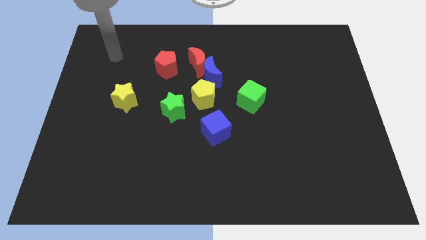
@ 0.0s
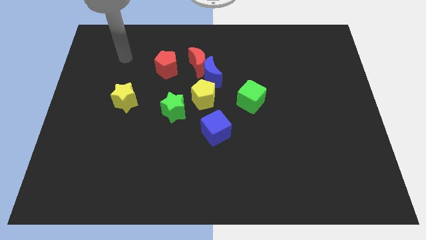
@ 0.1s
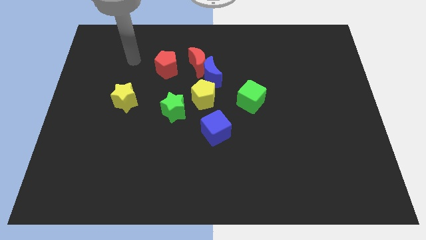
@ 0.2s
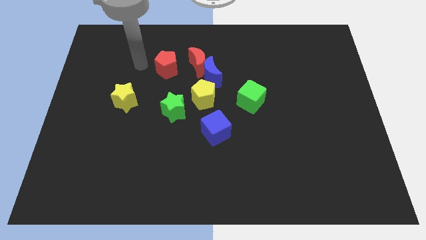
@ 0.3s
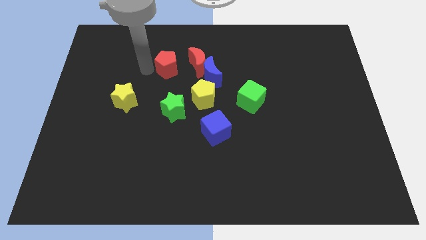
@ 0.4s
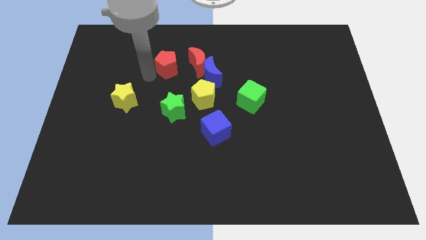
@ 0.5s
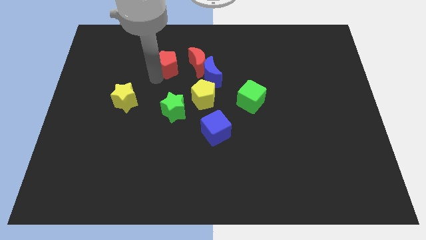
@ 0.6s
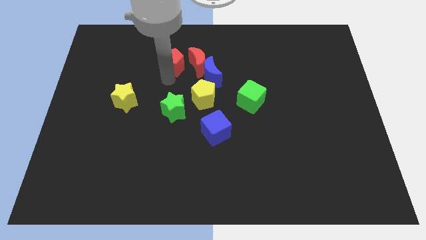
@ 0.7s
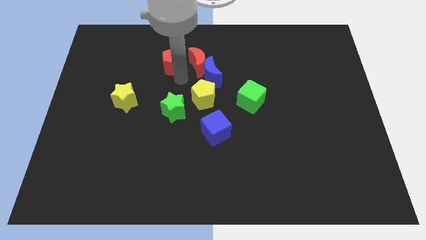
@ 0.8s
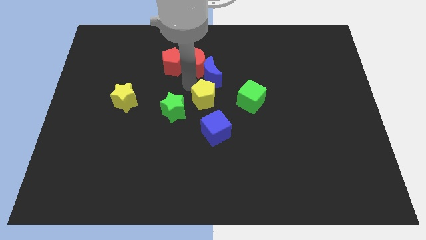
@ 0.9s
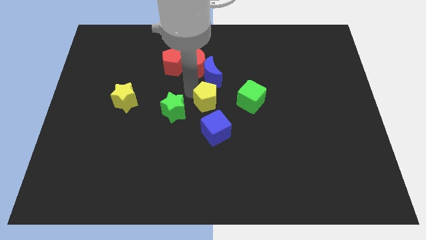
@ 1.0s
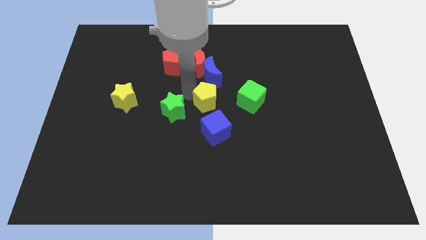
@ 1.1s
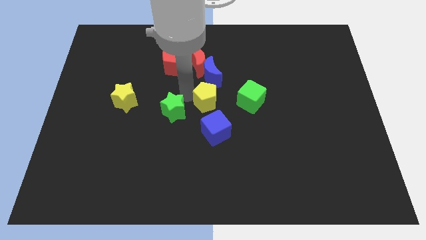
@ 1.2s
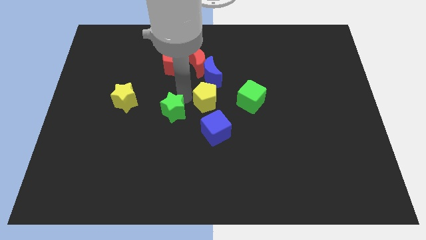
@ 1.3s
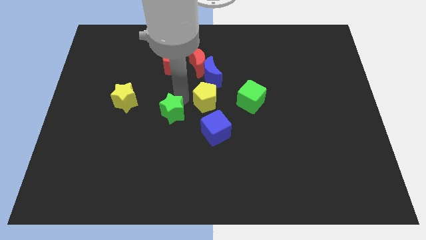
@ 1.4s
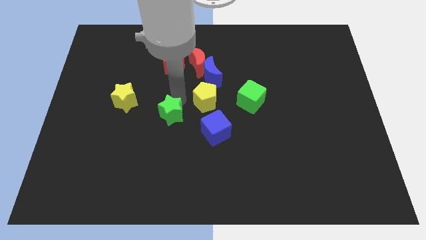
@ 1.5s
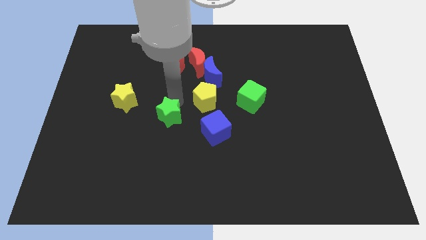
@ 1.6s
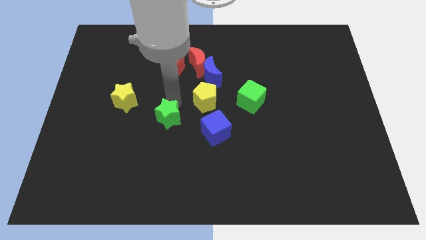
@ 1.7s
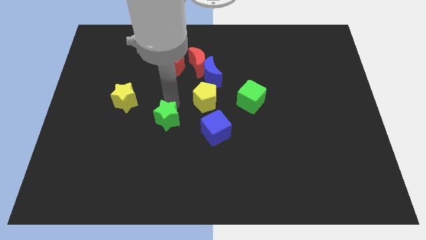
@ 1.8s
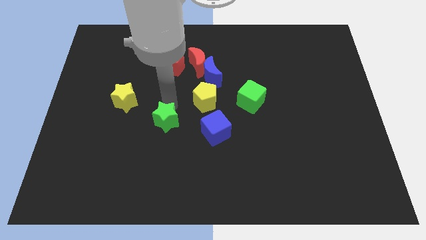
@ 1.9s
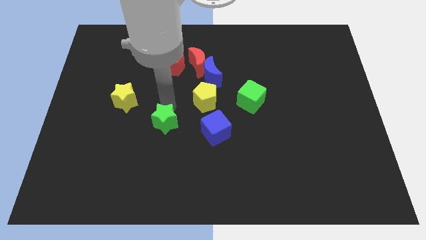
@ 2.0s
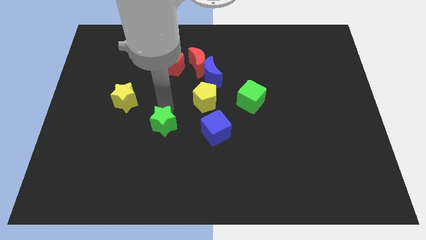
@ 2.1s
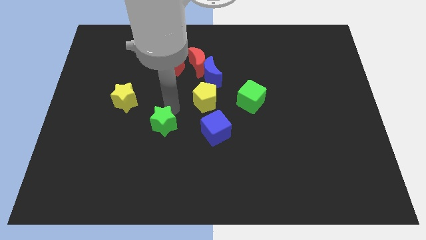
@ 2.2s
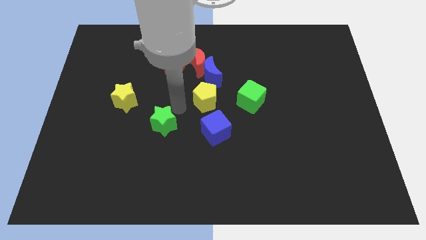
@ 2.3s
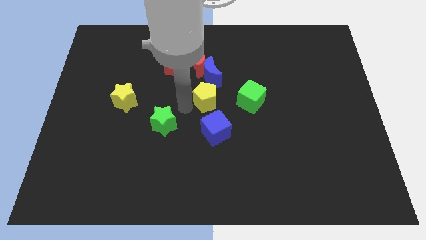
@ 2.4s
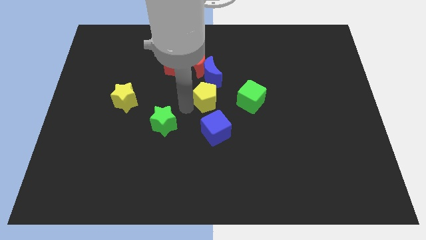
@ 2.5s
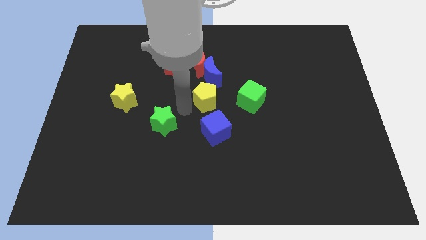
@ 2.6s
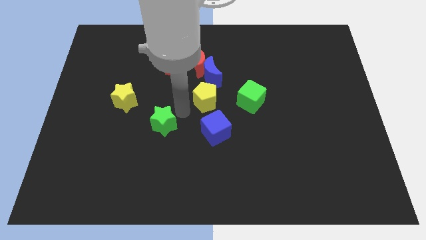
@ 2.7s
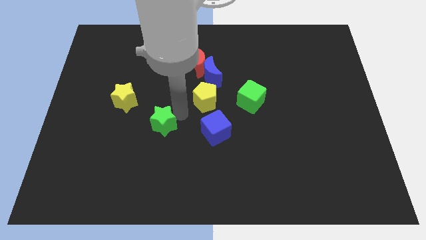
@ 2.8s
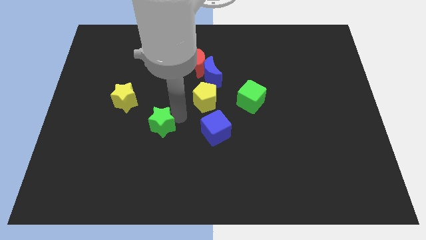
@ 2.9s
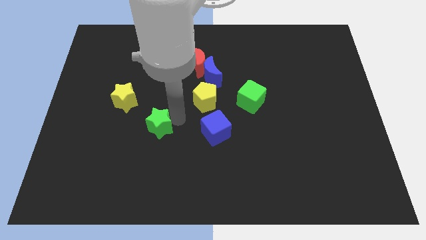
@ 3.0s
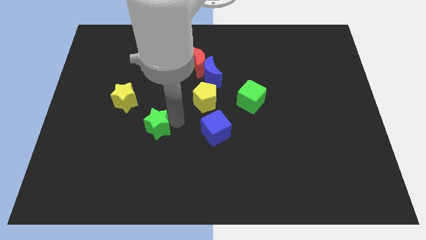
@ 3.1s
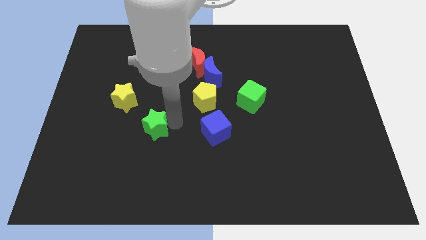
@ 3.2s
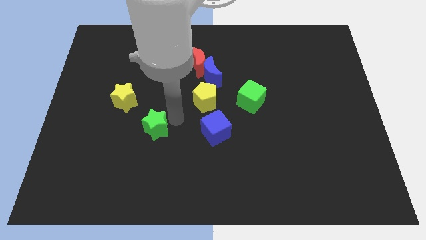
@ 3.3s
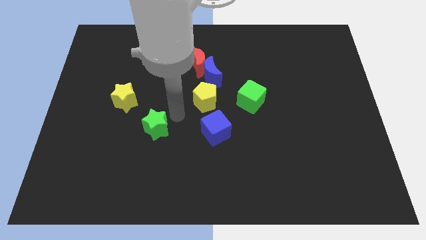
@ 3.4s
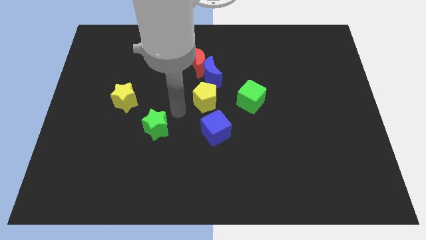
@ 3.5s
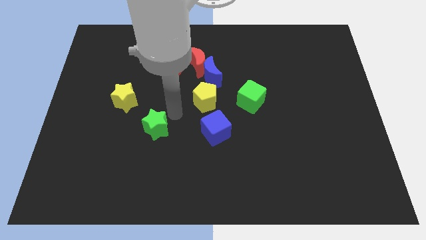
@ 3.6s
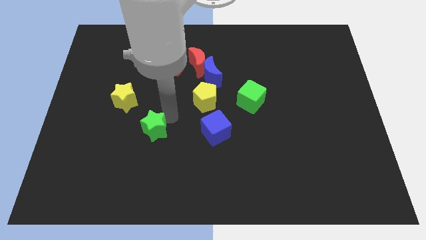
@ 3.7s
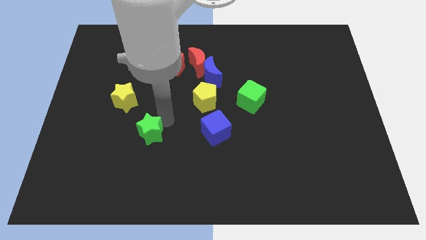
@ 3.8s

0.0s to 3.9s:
push the green star downwards and to the left diagonally a little bit

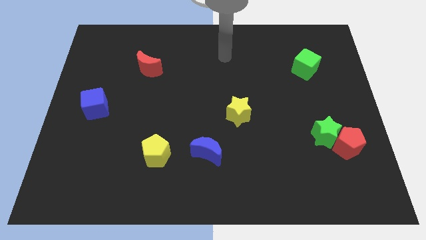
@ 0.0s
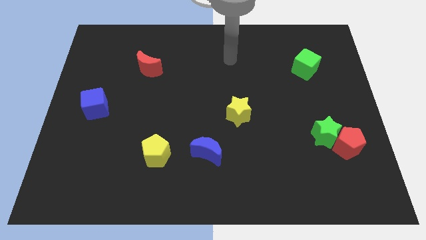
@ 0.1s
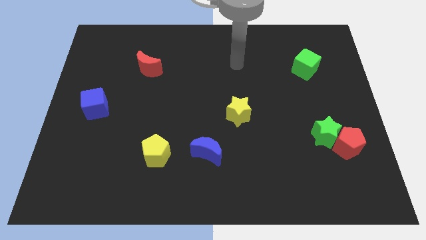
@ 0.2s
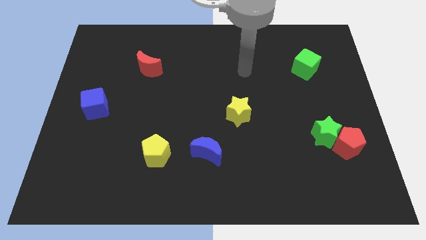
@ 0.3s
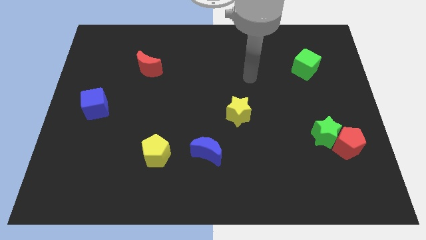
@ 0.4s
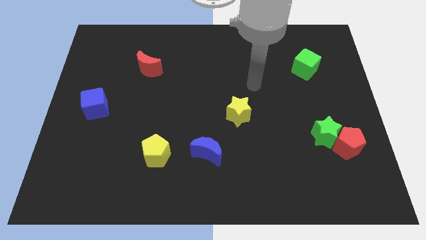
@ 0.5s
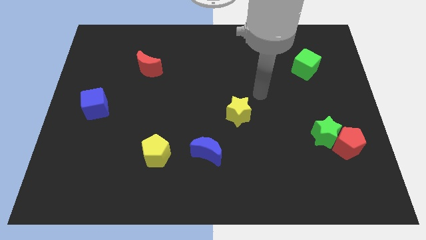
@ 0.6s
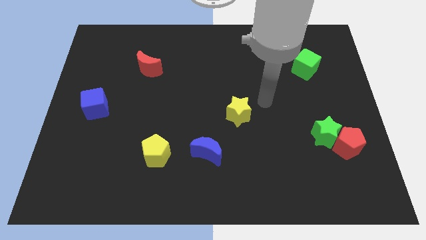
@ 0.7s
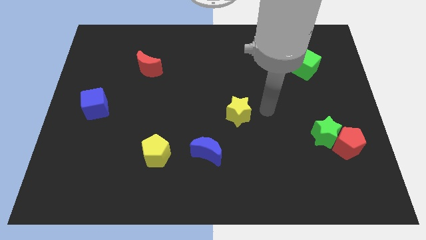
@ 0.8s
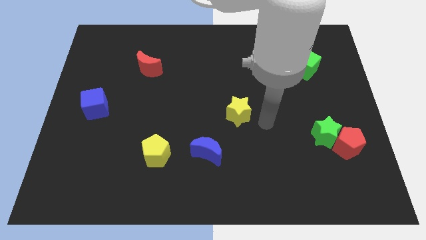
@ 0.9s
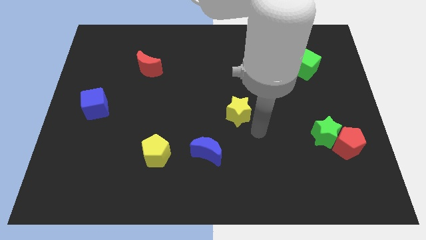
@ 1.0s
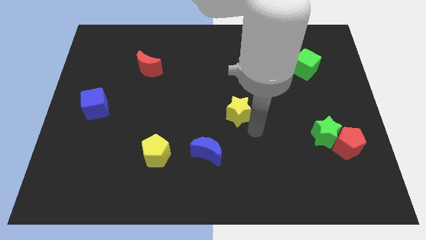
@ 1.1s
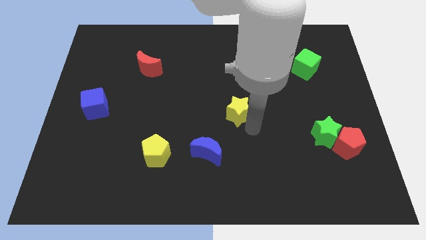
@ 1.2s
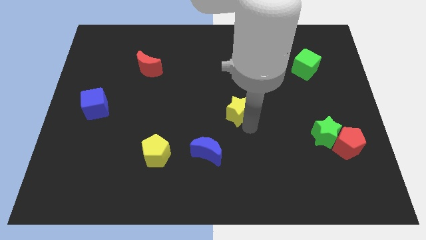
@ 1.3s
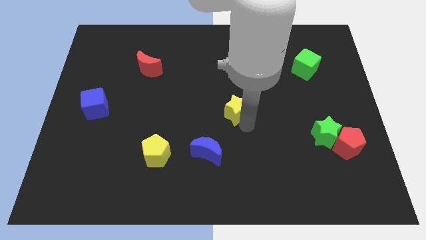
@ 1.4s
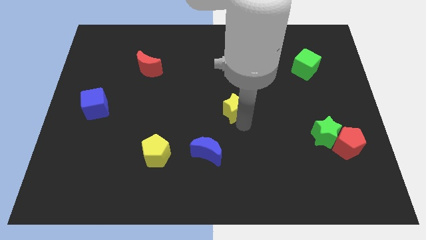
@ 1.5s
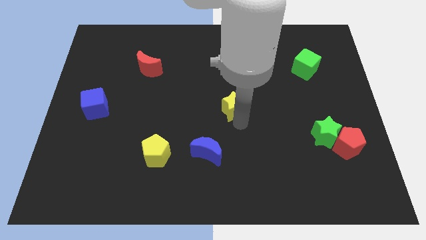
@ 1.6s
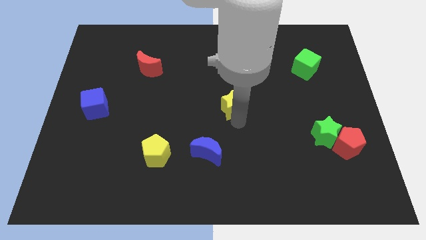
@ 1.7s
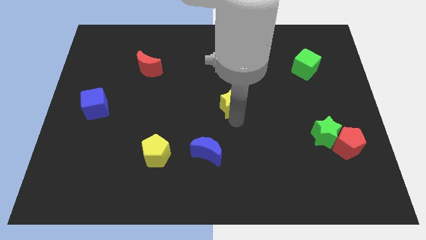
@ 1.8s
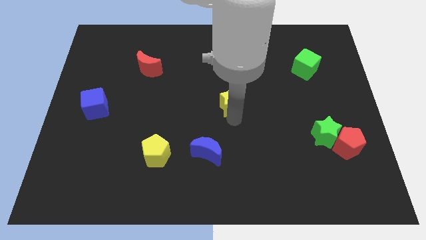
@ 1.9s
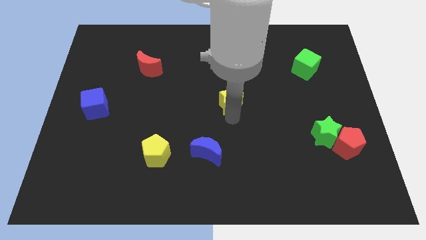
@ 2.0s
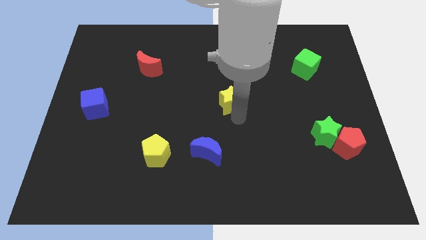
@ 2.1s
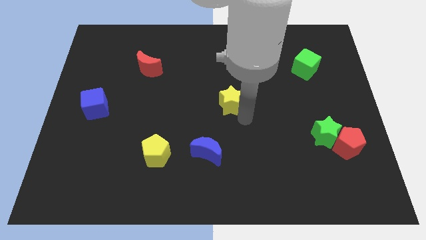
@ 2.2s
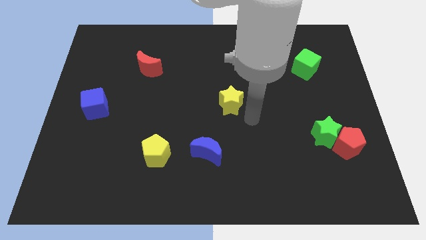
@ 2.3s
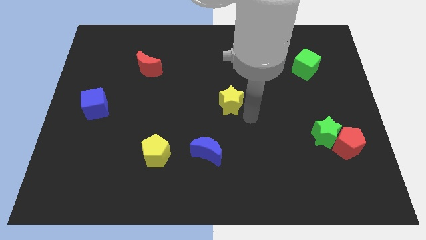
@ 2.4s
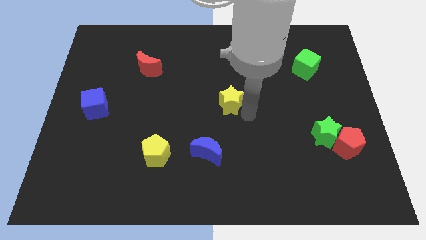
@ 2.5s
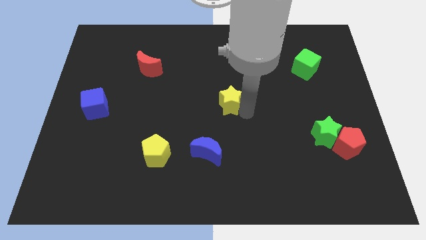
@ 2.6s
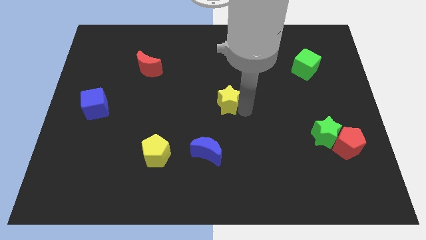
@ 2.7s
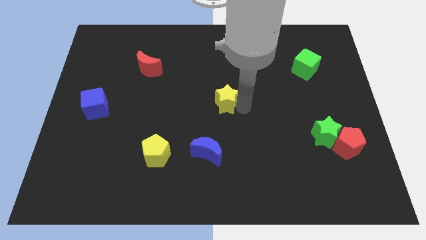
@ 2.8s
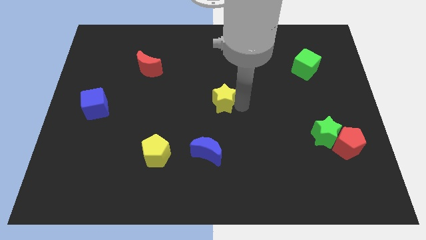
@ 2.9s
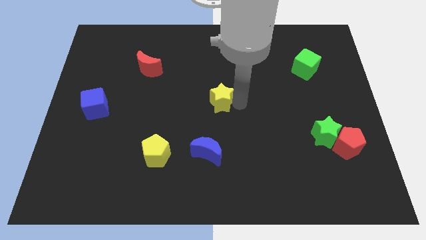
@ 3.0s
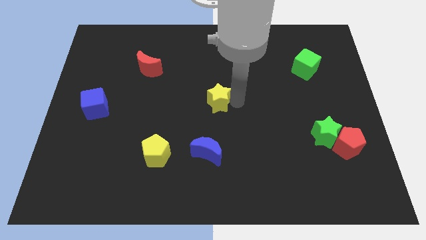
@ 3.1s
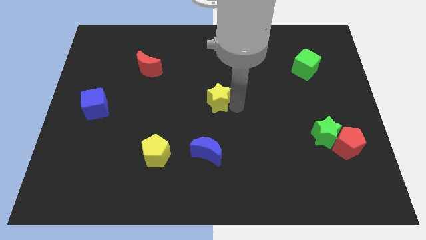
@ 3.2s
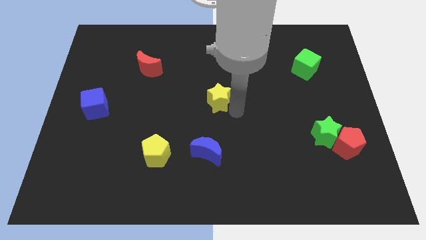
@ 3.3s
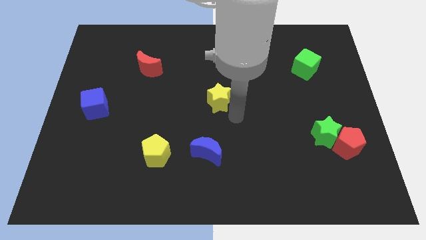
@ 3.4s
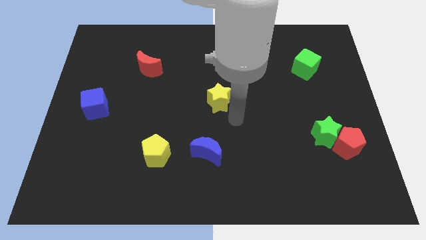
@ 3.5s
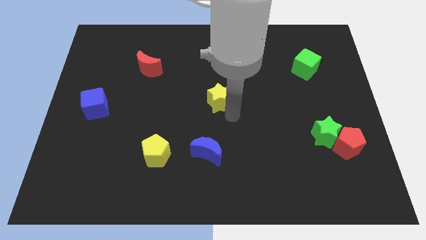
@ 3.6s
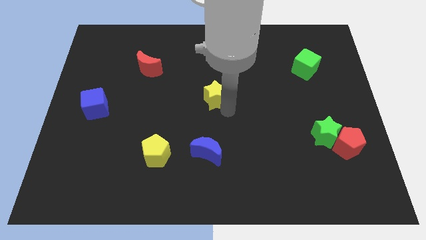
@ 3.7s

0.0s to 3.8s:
slightly slide the yellow star upwards and left

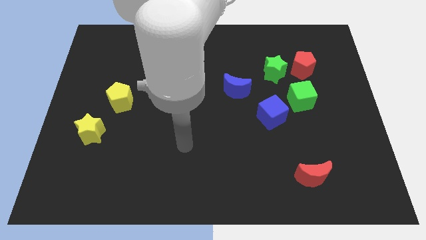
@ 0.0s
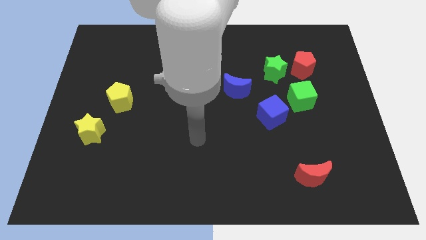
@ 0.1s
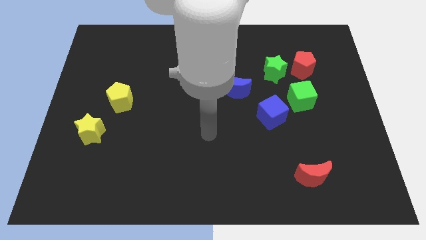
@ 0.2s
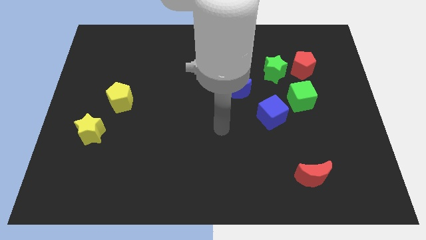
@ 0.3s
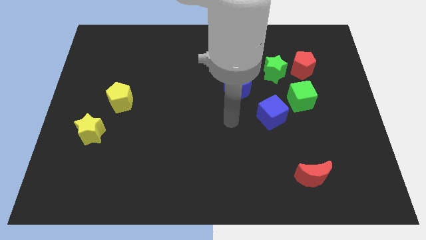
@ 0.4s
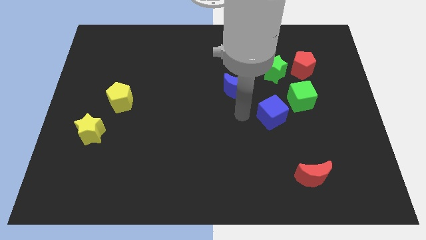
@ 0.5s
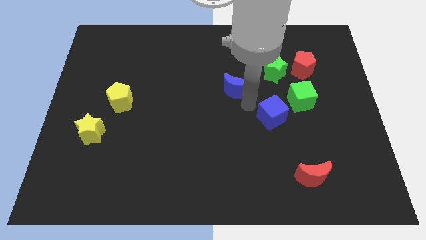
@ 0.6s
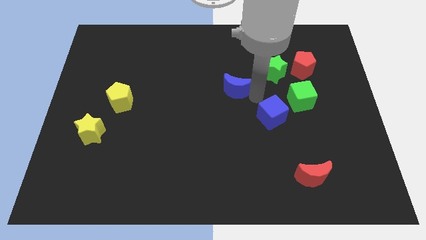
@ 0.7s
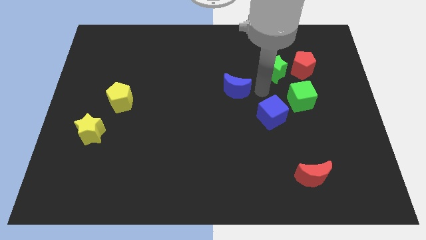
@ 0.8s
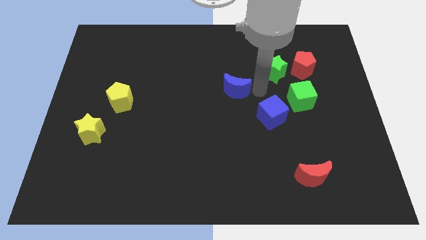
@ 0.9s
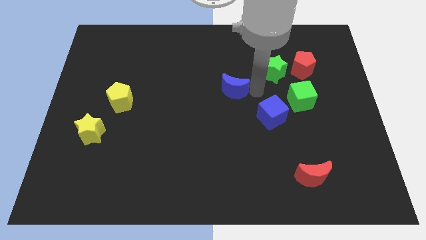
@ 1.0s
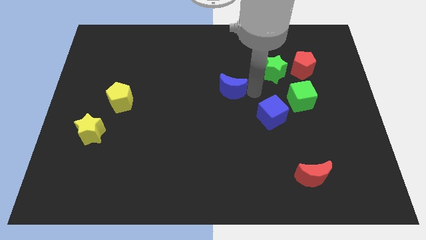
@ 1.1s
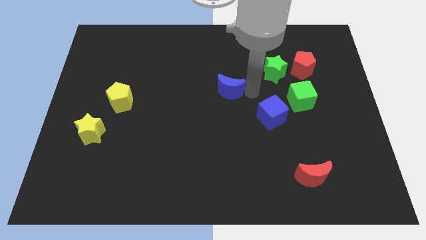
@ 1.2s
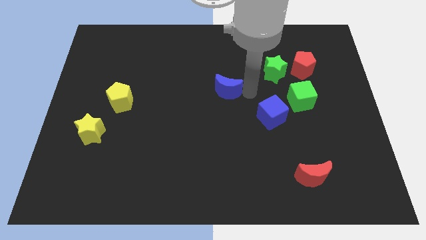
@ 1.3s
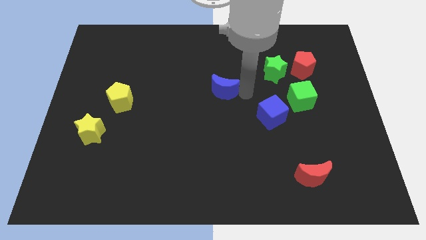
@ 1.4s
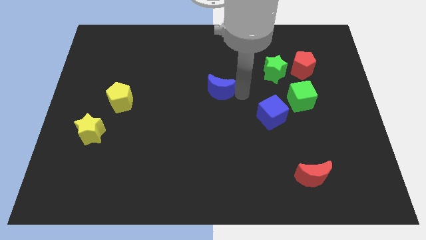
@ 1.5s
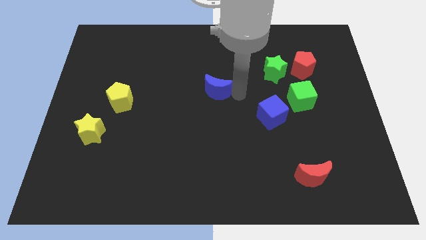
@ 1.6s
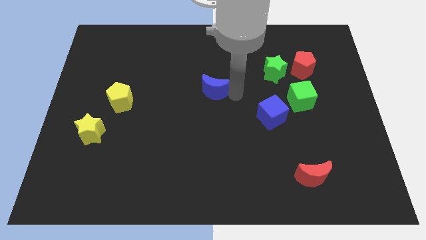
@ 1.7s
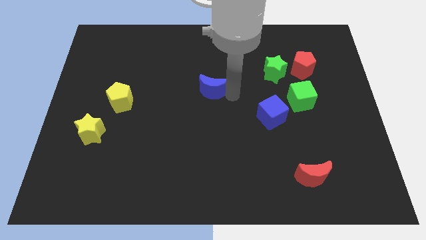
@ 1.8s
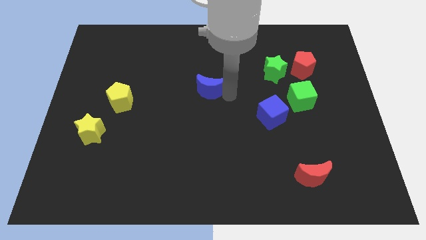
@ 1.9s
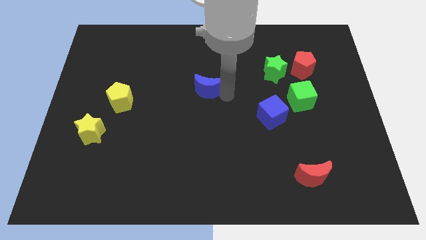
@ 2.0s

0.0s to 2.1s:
slightly push the blue moon to the left
